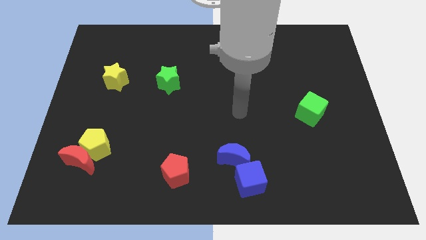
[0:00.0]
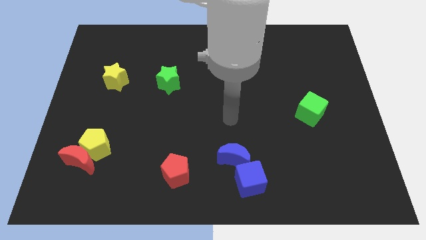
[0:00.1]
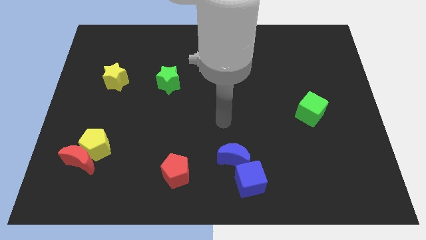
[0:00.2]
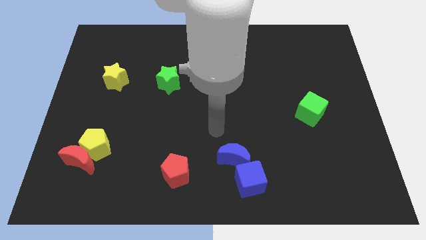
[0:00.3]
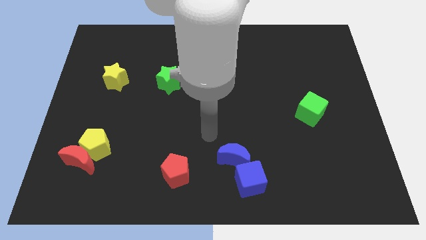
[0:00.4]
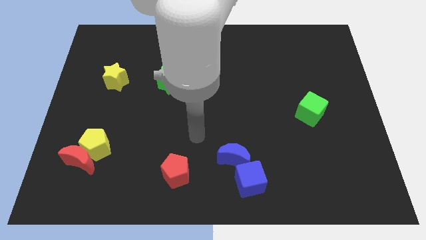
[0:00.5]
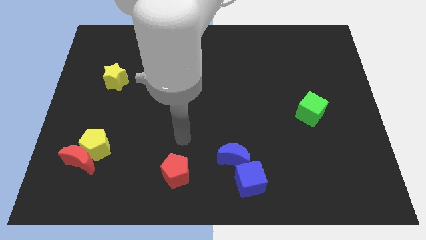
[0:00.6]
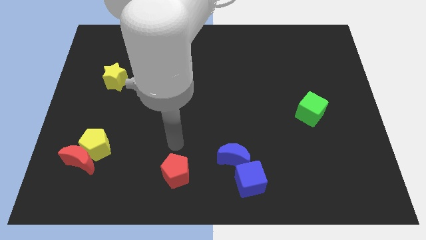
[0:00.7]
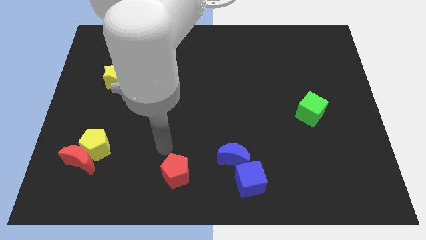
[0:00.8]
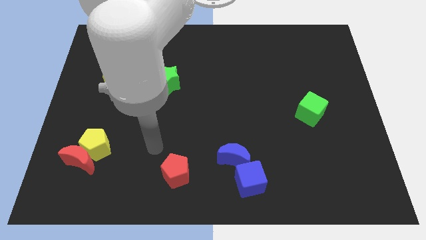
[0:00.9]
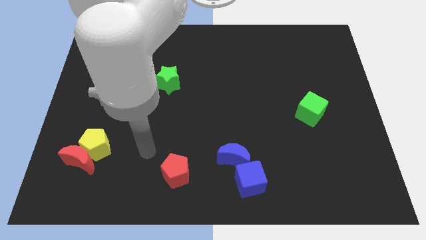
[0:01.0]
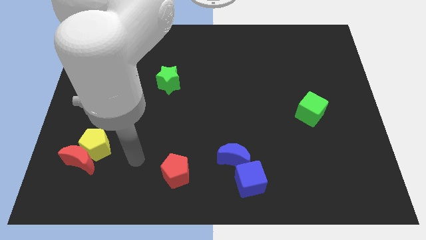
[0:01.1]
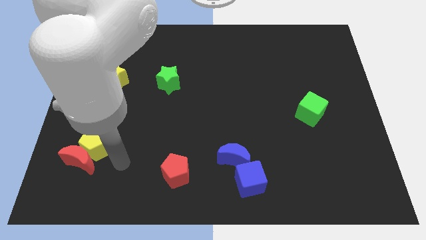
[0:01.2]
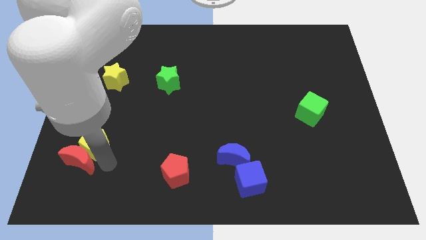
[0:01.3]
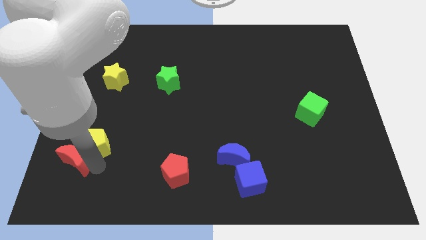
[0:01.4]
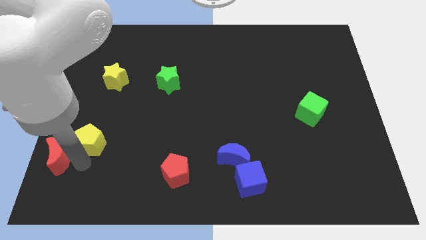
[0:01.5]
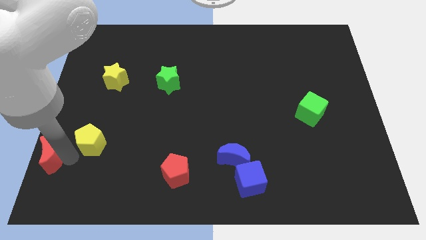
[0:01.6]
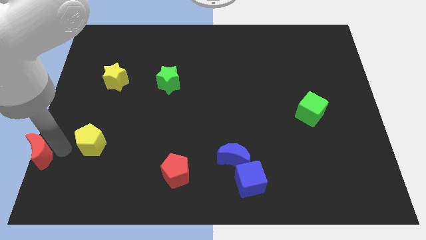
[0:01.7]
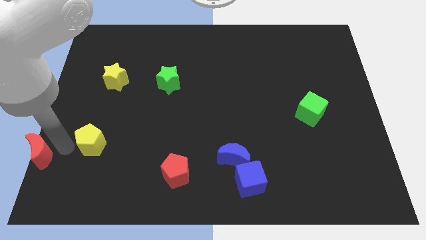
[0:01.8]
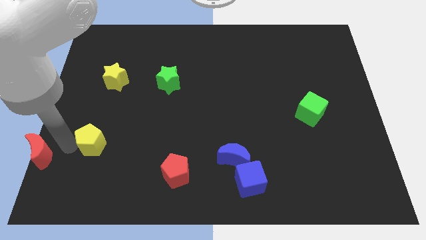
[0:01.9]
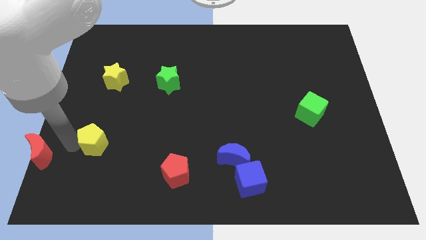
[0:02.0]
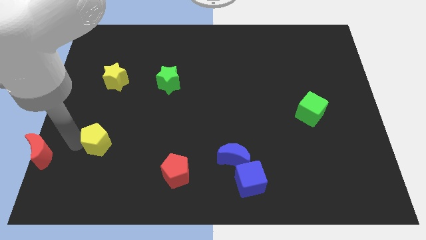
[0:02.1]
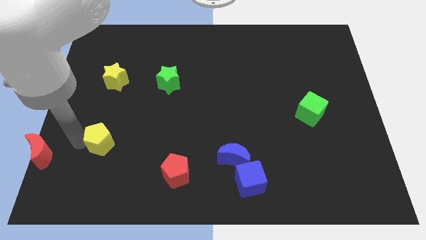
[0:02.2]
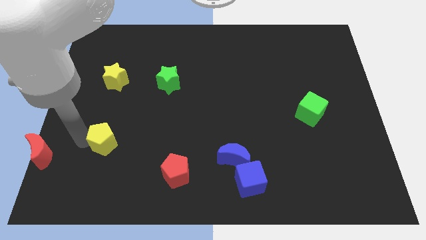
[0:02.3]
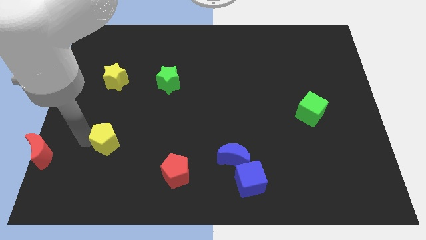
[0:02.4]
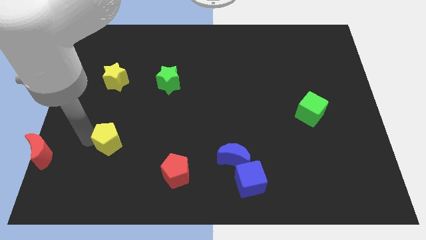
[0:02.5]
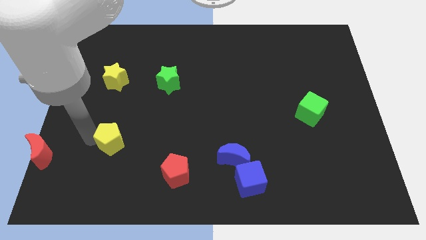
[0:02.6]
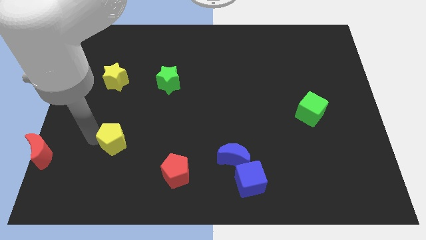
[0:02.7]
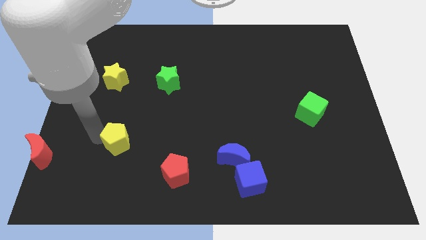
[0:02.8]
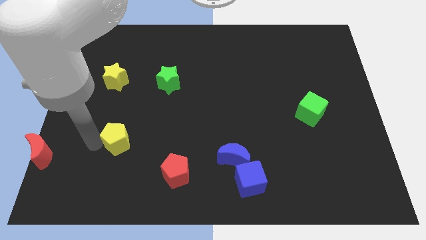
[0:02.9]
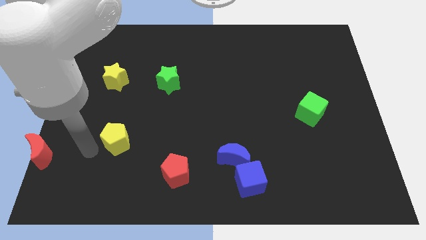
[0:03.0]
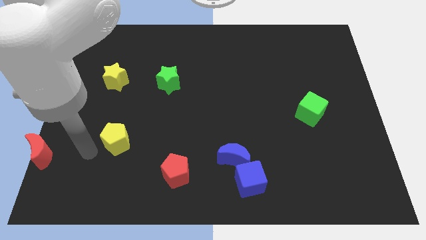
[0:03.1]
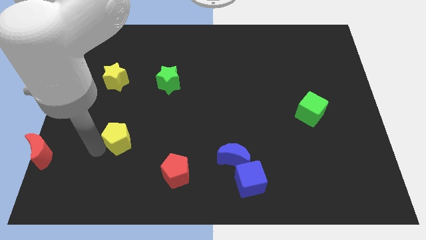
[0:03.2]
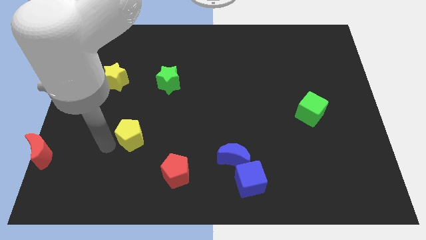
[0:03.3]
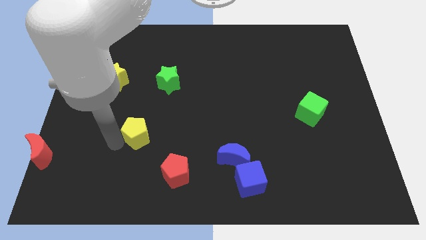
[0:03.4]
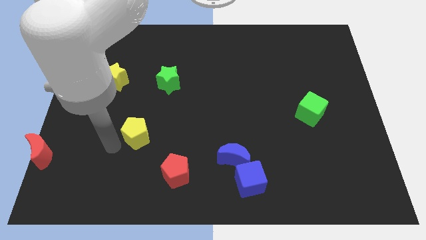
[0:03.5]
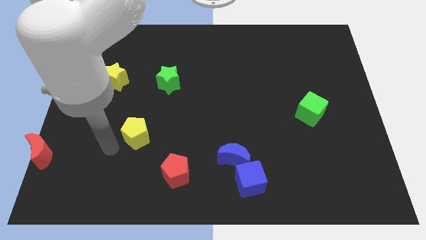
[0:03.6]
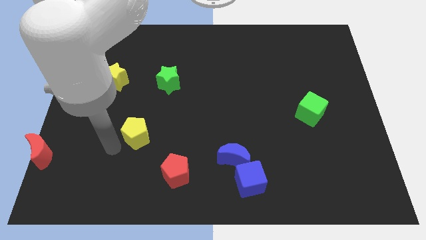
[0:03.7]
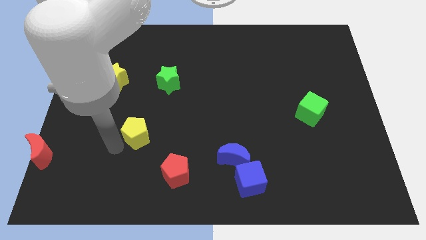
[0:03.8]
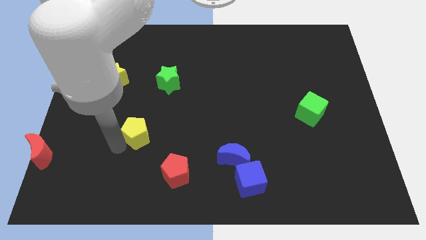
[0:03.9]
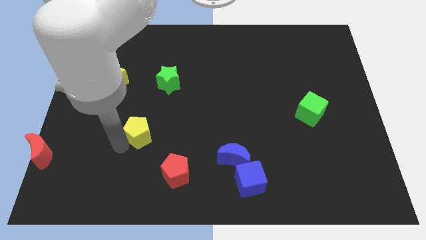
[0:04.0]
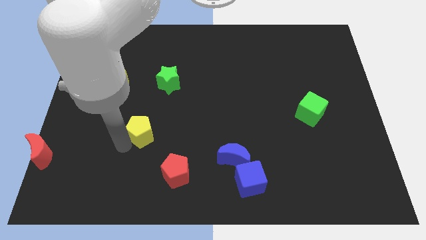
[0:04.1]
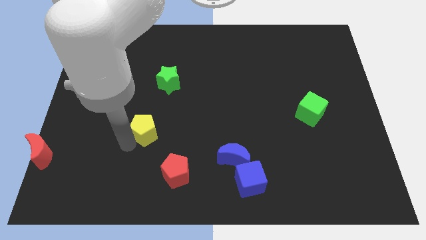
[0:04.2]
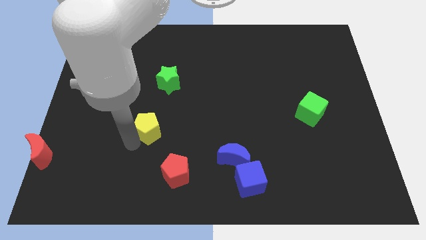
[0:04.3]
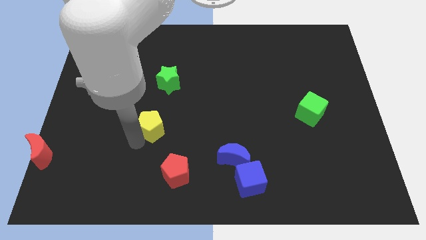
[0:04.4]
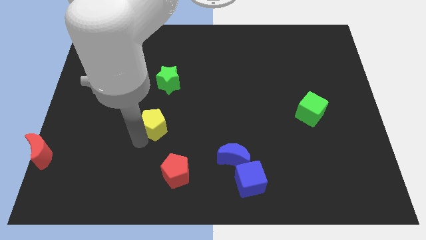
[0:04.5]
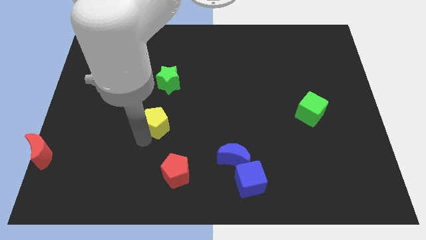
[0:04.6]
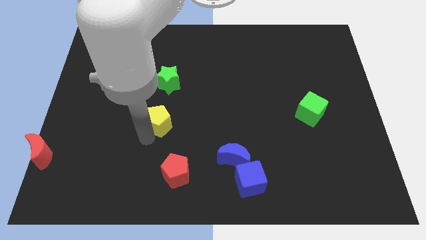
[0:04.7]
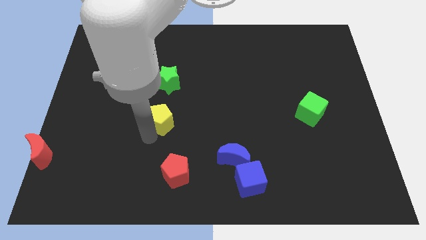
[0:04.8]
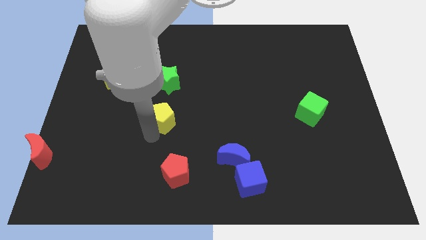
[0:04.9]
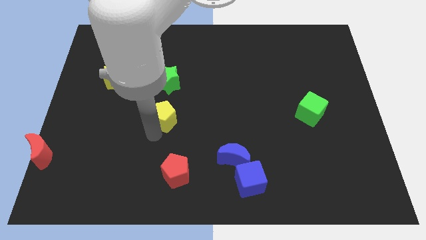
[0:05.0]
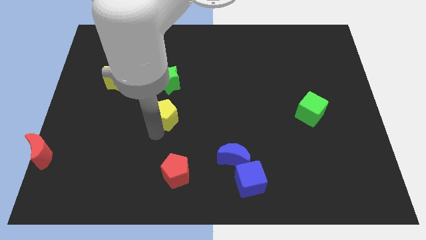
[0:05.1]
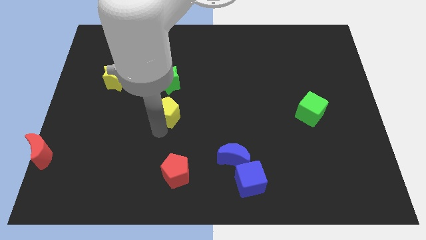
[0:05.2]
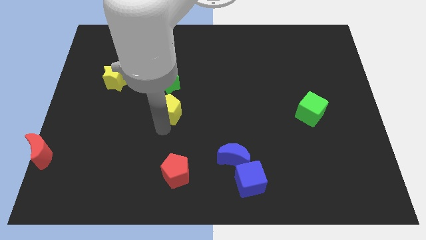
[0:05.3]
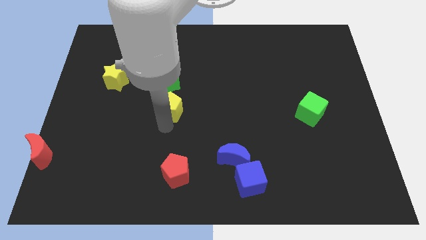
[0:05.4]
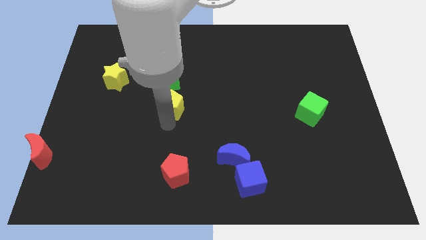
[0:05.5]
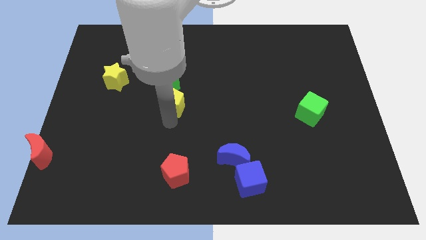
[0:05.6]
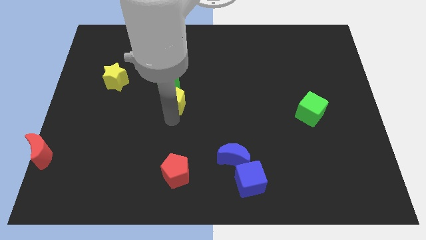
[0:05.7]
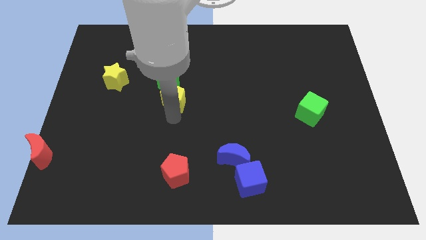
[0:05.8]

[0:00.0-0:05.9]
move the yellow pentagon upwards and then right

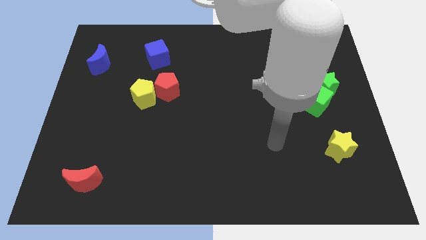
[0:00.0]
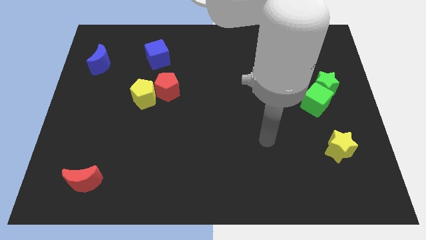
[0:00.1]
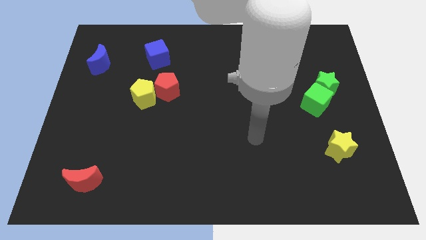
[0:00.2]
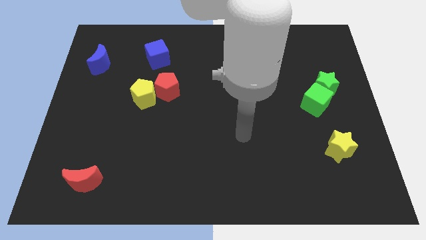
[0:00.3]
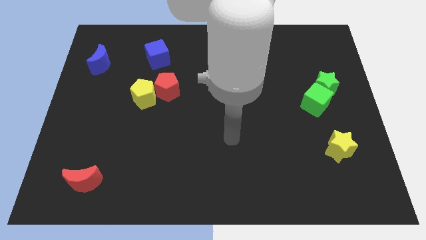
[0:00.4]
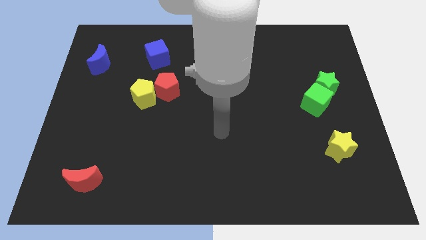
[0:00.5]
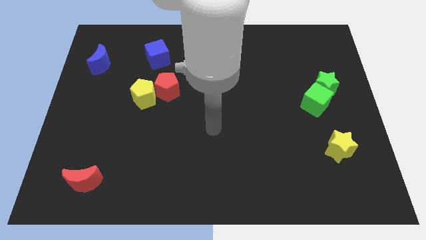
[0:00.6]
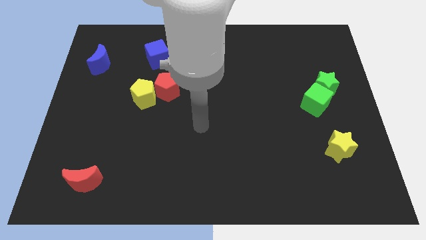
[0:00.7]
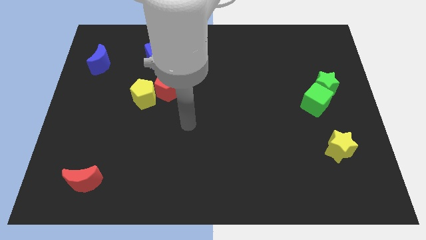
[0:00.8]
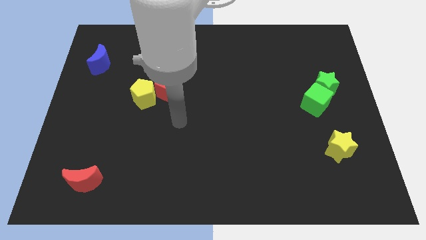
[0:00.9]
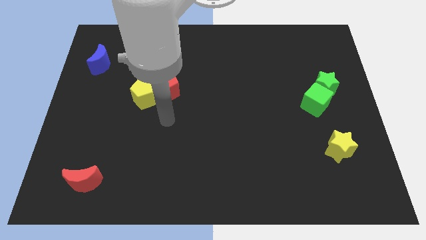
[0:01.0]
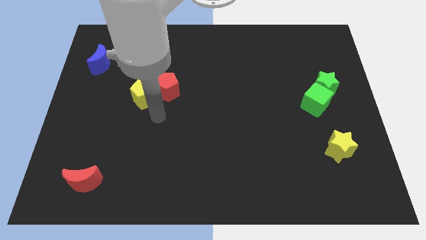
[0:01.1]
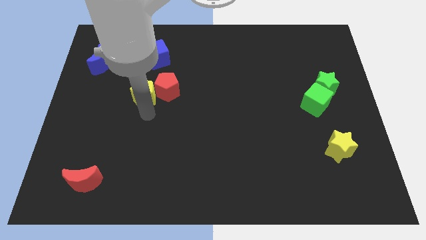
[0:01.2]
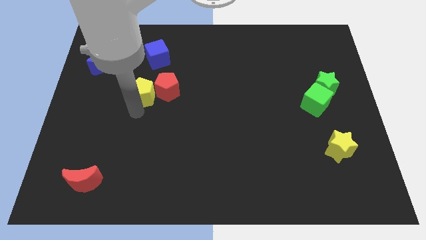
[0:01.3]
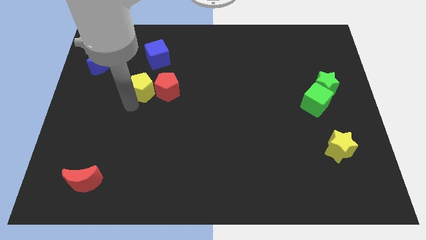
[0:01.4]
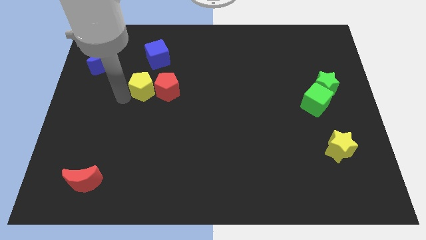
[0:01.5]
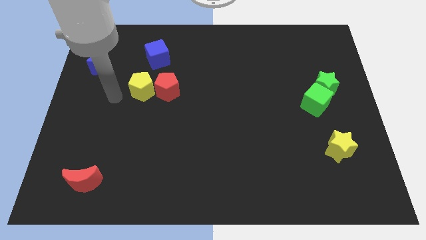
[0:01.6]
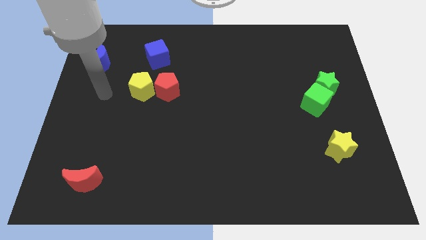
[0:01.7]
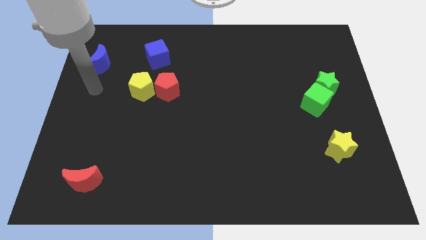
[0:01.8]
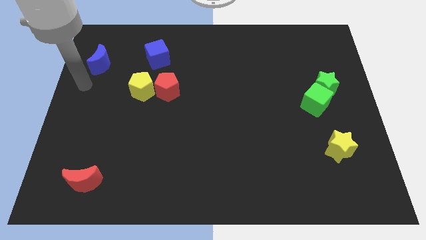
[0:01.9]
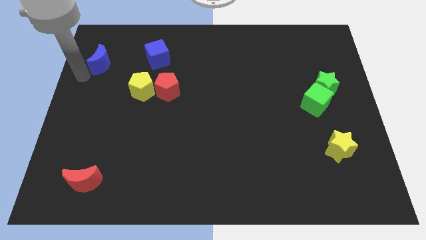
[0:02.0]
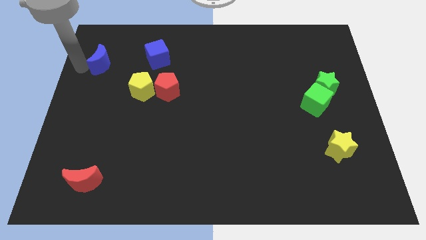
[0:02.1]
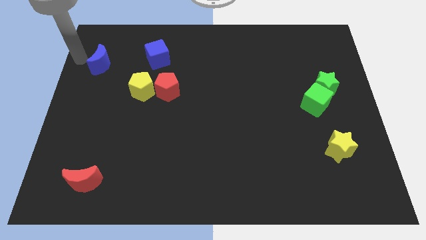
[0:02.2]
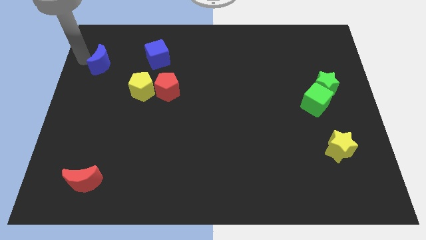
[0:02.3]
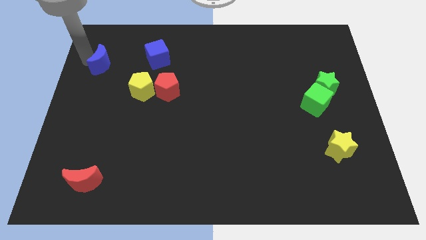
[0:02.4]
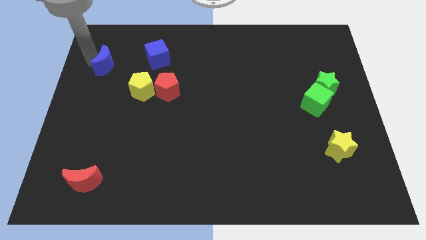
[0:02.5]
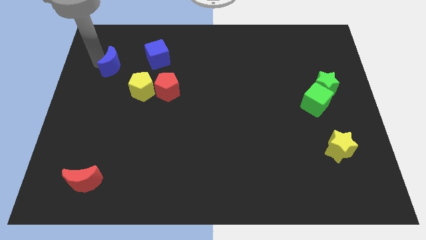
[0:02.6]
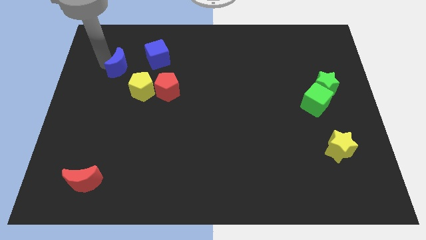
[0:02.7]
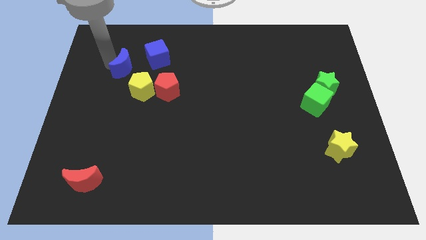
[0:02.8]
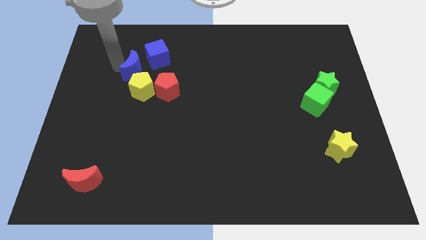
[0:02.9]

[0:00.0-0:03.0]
push the blue moon right a little
